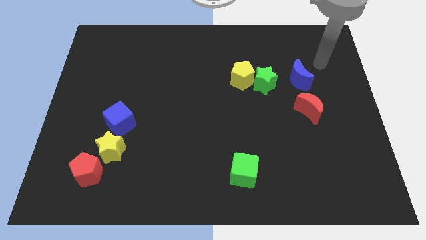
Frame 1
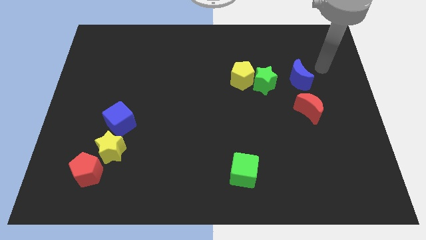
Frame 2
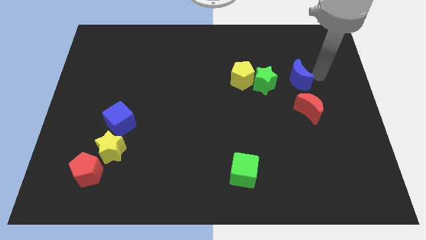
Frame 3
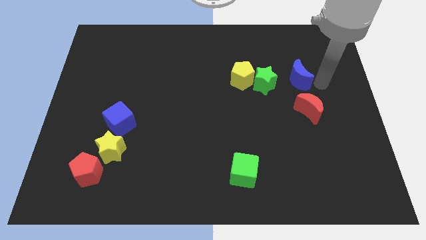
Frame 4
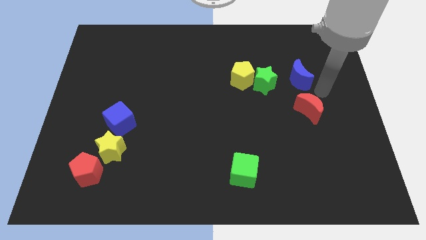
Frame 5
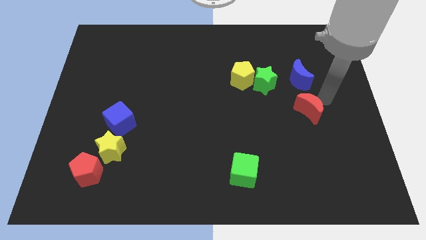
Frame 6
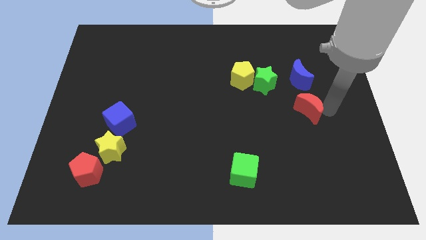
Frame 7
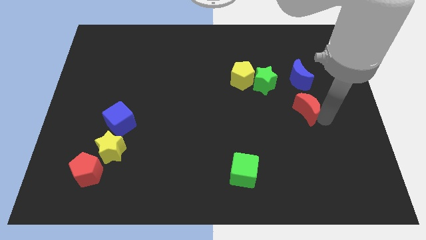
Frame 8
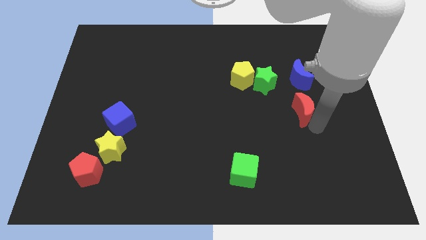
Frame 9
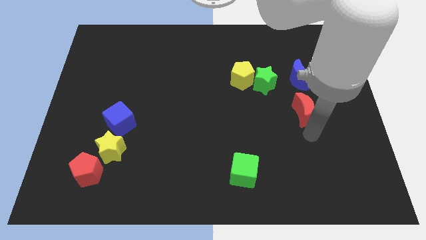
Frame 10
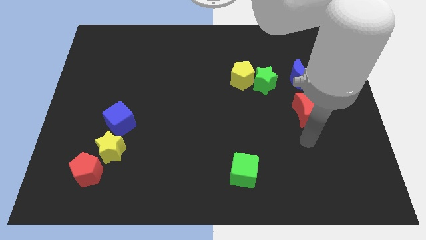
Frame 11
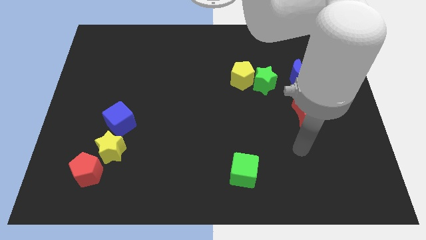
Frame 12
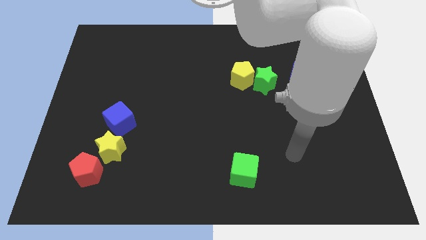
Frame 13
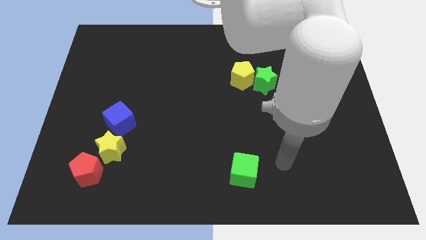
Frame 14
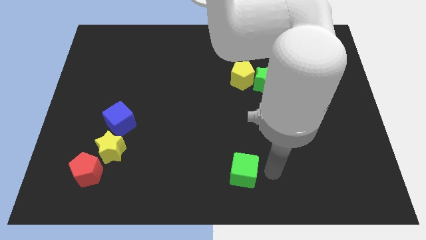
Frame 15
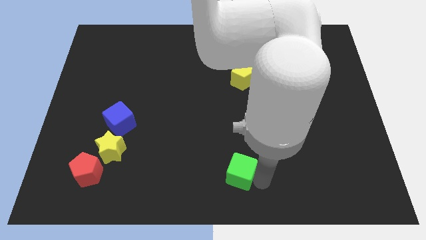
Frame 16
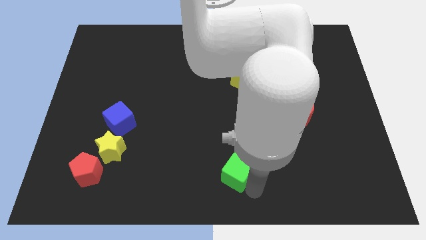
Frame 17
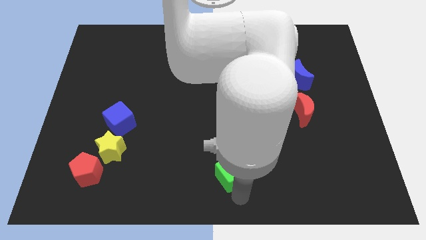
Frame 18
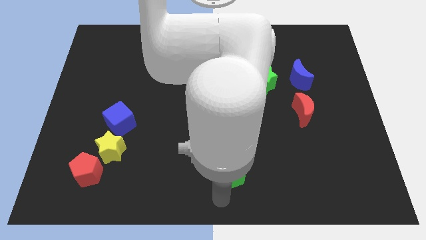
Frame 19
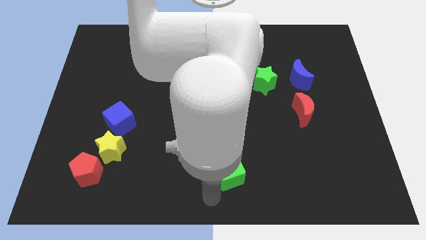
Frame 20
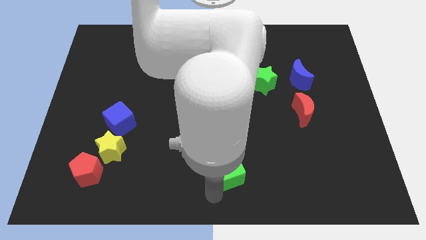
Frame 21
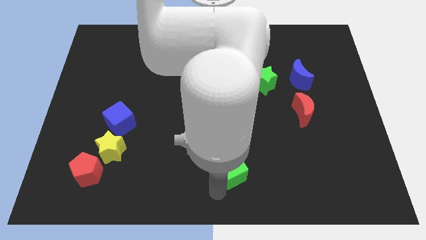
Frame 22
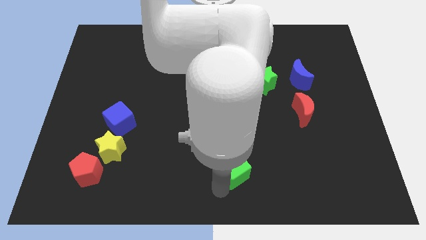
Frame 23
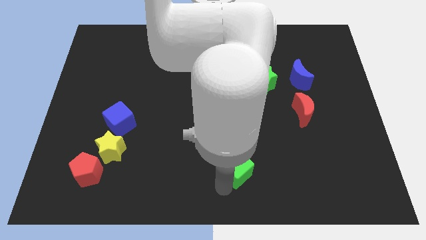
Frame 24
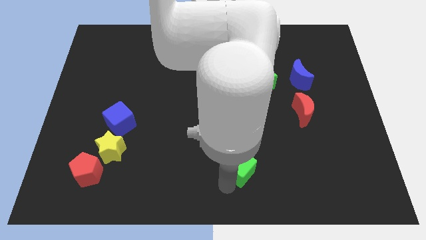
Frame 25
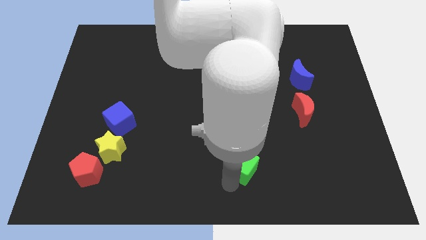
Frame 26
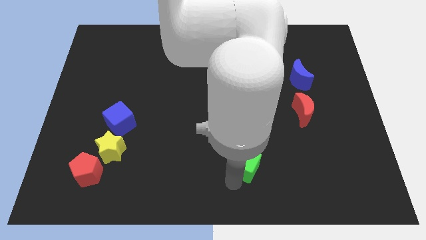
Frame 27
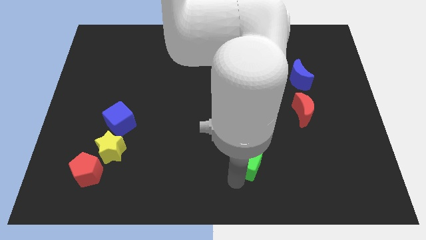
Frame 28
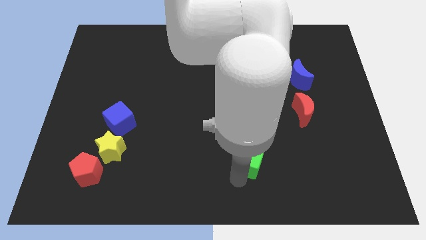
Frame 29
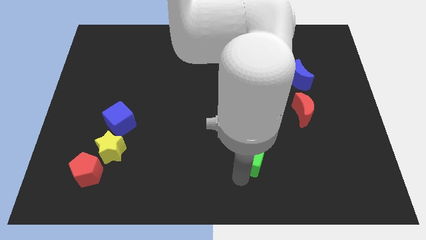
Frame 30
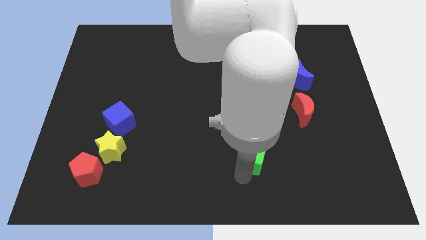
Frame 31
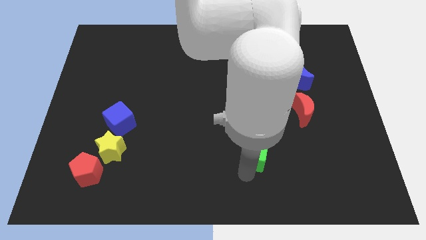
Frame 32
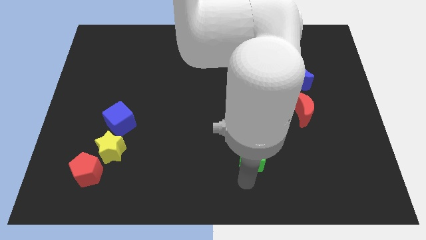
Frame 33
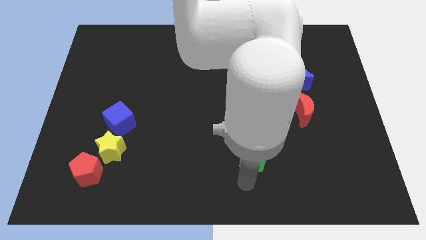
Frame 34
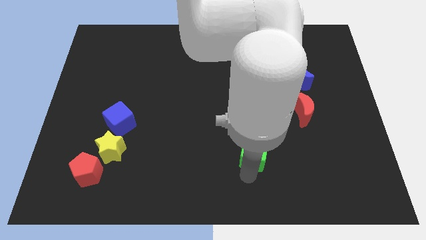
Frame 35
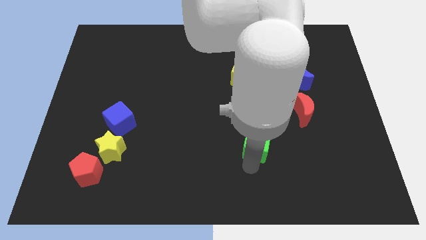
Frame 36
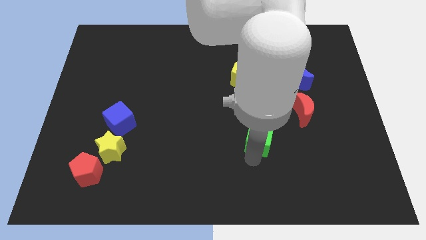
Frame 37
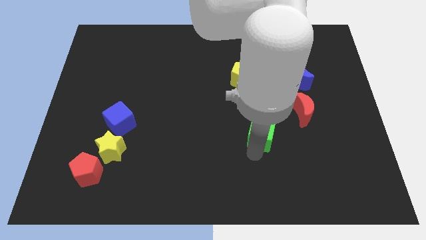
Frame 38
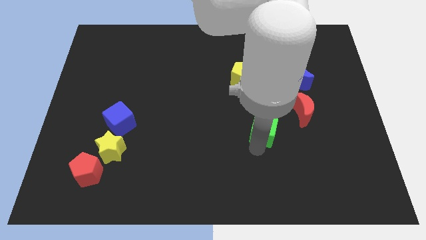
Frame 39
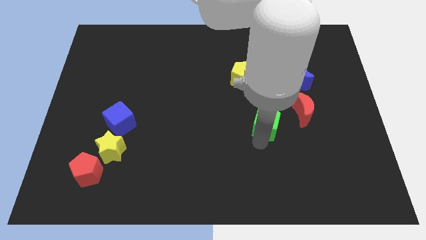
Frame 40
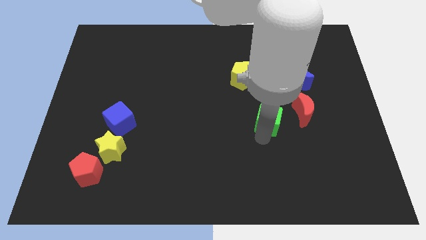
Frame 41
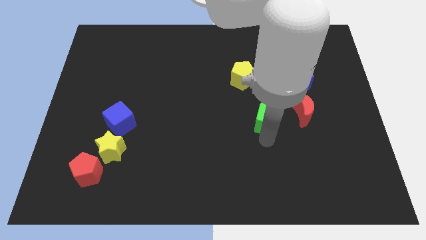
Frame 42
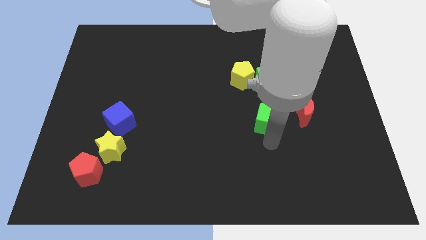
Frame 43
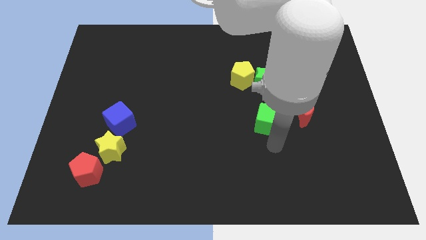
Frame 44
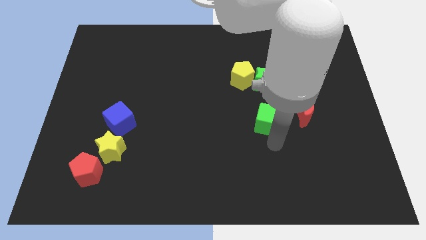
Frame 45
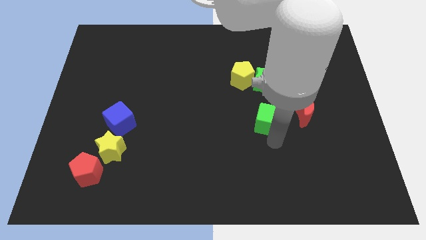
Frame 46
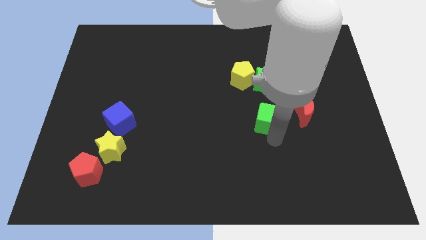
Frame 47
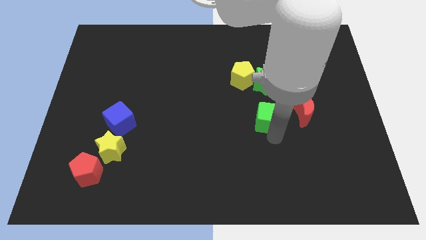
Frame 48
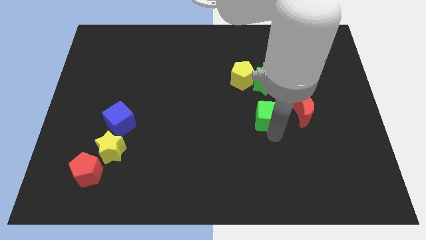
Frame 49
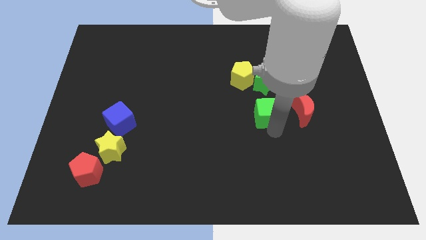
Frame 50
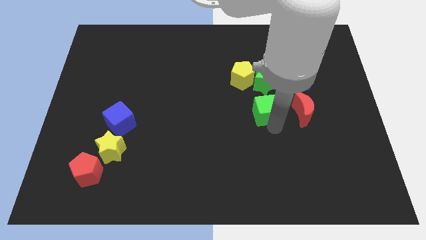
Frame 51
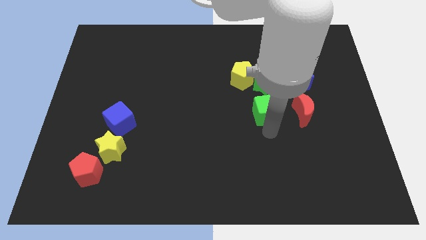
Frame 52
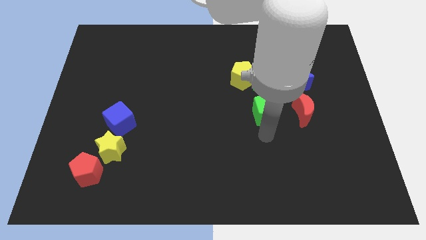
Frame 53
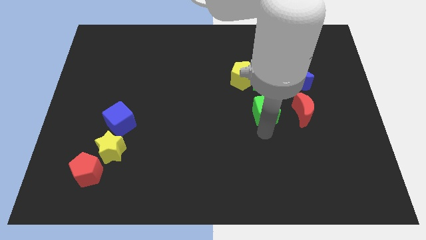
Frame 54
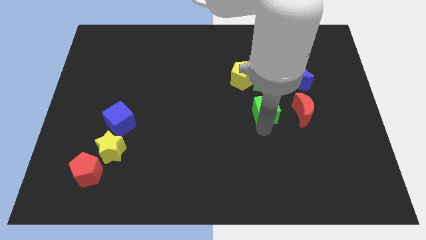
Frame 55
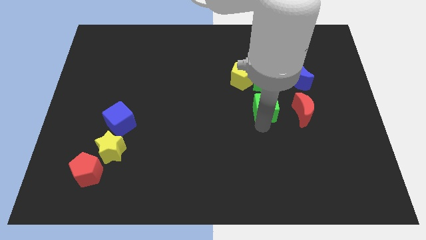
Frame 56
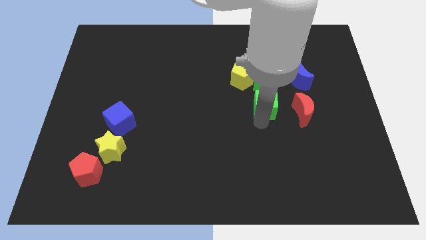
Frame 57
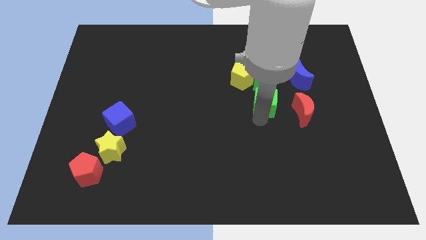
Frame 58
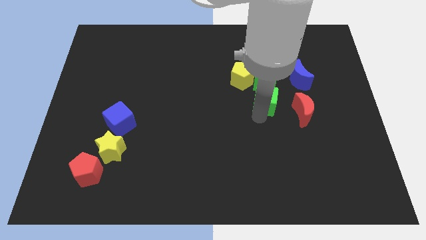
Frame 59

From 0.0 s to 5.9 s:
push the green cube close to the green star

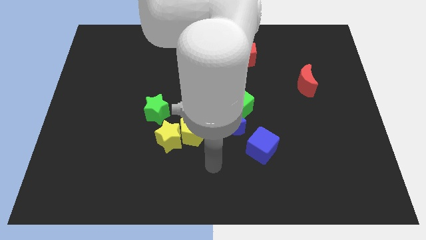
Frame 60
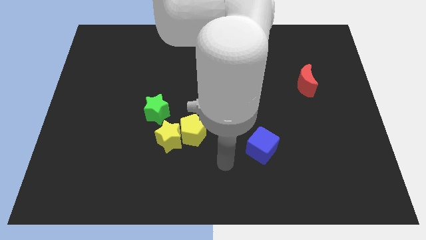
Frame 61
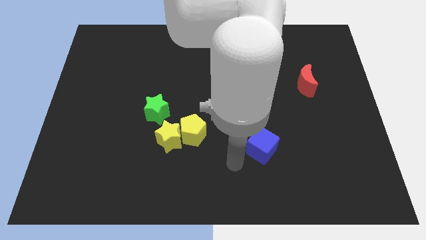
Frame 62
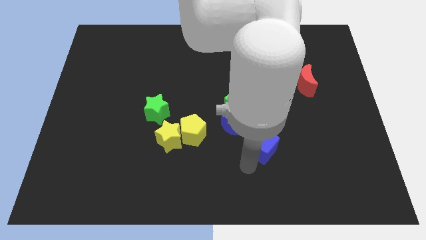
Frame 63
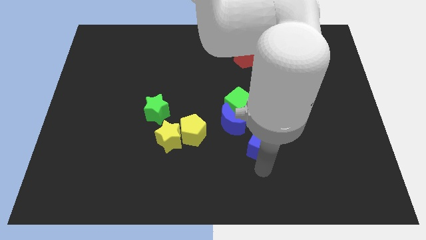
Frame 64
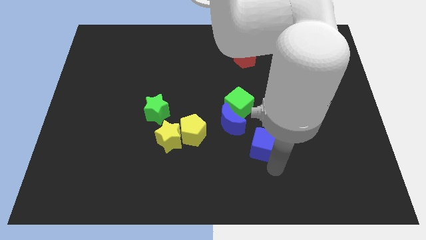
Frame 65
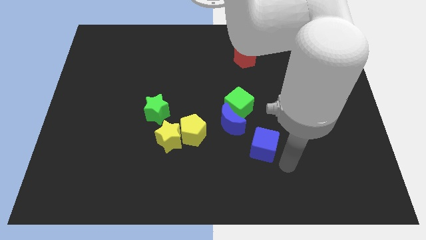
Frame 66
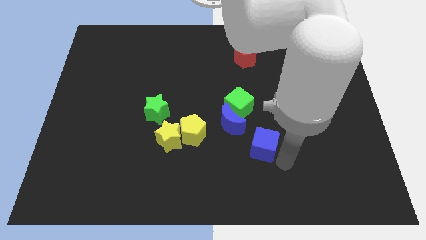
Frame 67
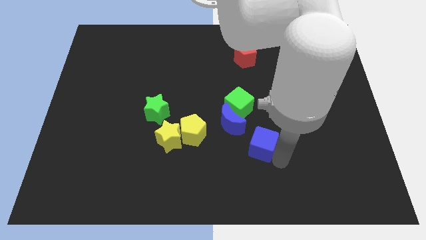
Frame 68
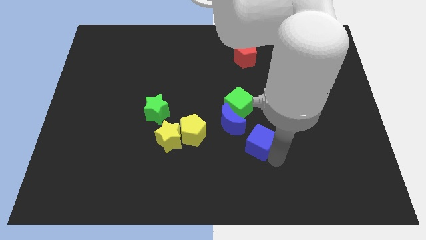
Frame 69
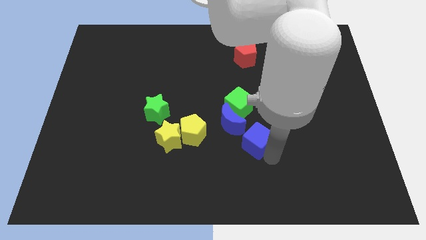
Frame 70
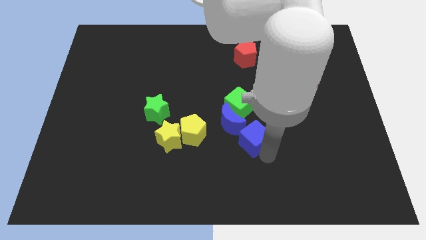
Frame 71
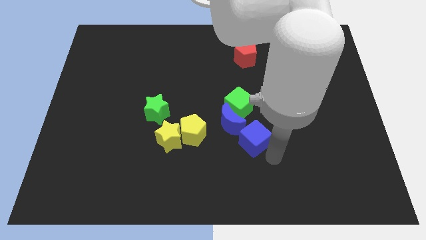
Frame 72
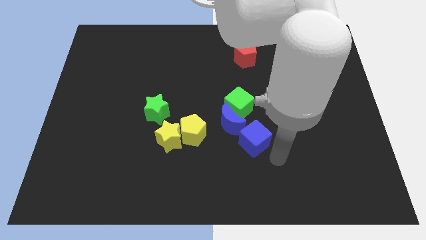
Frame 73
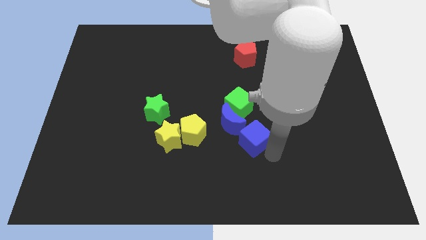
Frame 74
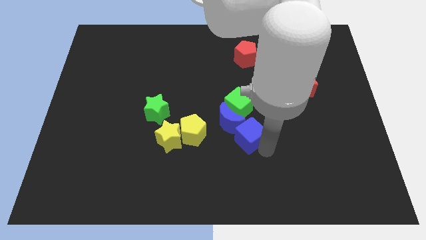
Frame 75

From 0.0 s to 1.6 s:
push the blue cube close to the blue moon
